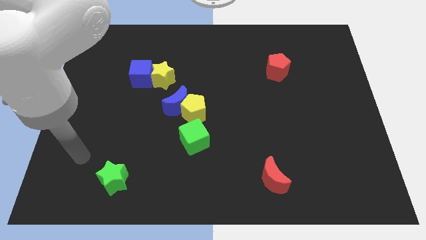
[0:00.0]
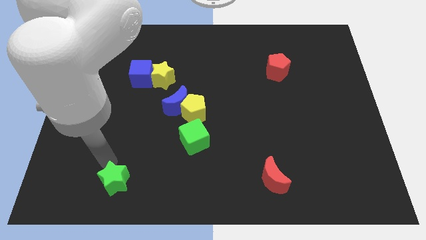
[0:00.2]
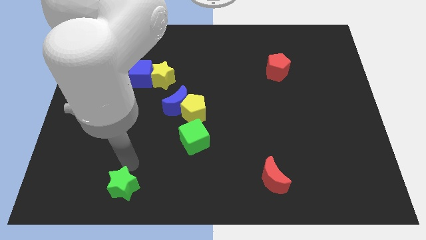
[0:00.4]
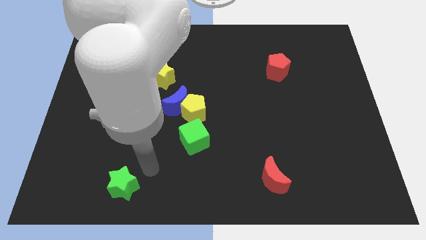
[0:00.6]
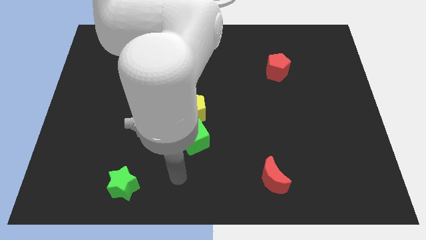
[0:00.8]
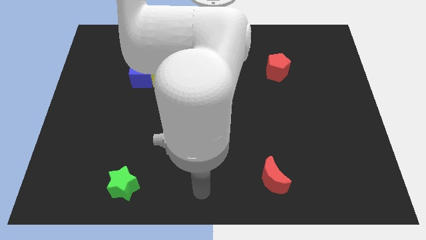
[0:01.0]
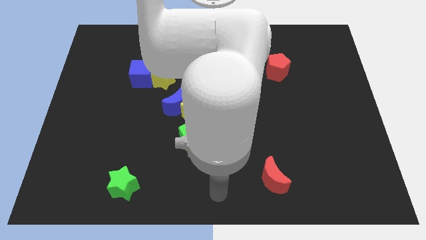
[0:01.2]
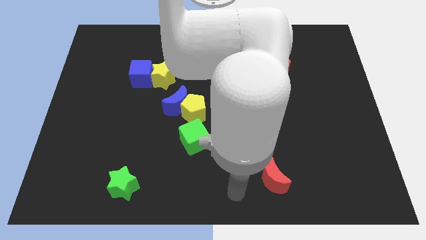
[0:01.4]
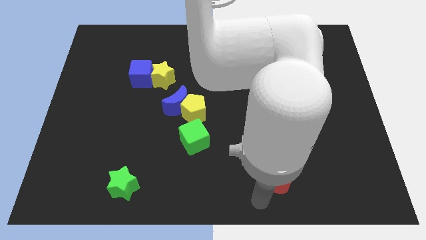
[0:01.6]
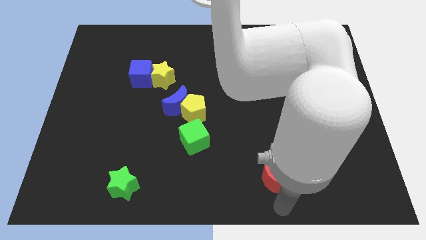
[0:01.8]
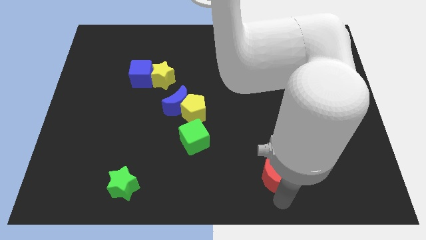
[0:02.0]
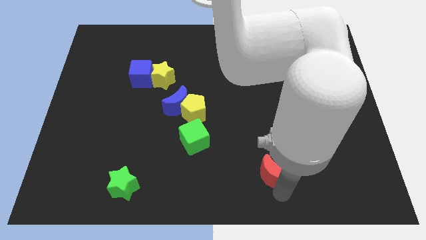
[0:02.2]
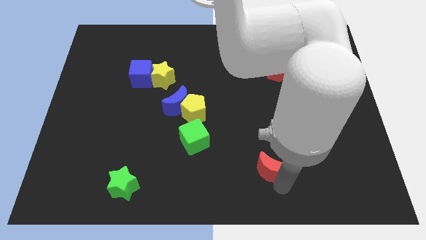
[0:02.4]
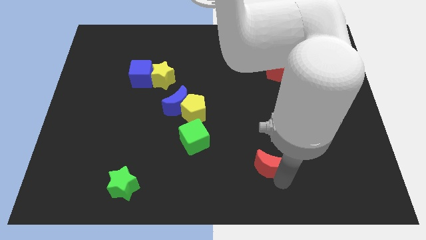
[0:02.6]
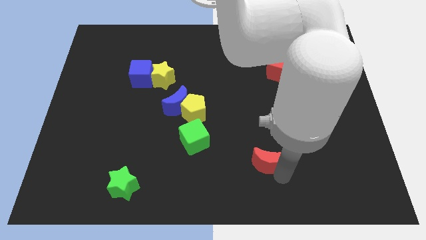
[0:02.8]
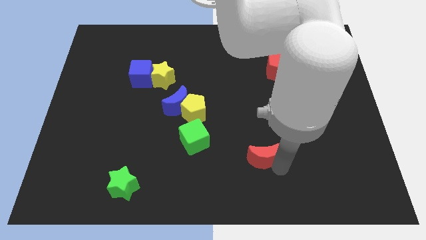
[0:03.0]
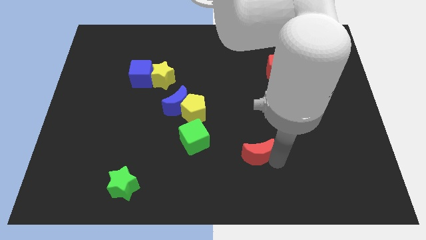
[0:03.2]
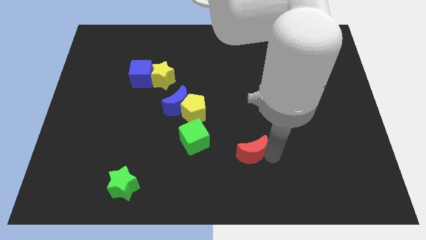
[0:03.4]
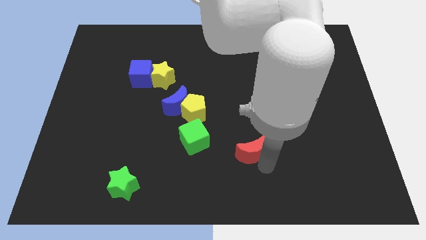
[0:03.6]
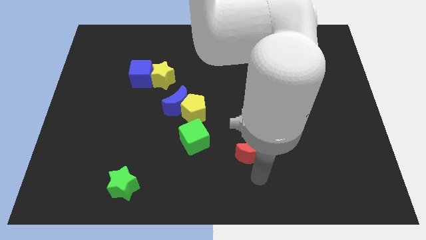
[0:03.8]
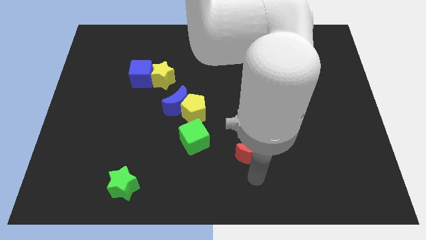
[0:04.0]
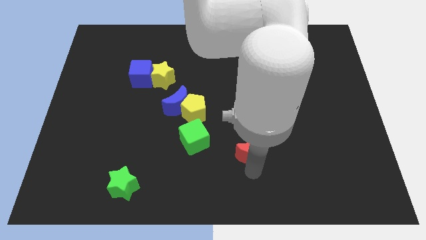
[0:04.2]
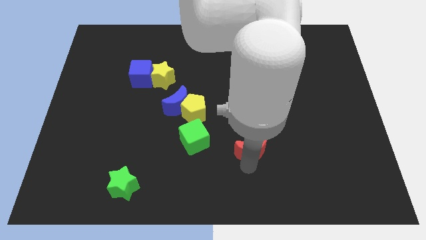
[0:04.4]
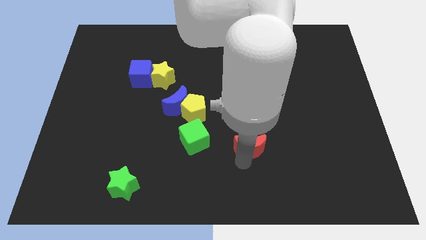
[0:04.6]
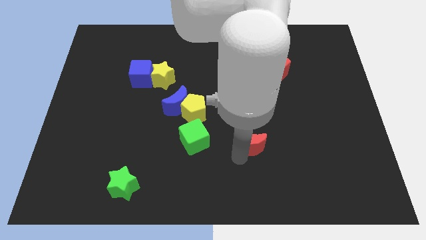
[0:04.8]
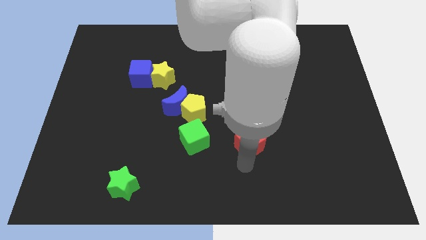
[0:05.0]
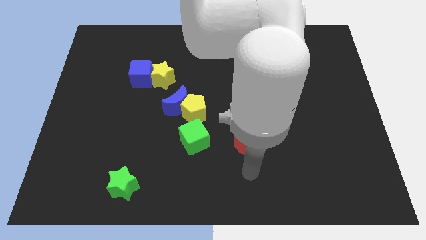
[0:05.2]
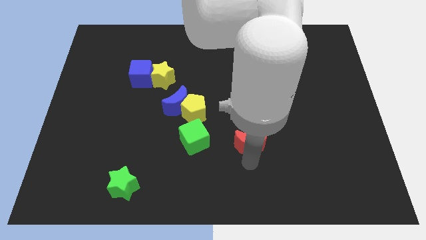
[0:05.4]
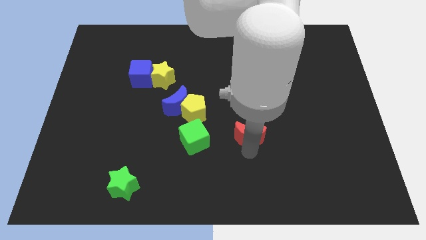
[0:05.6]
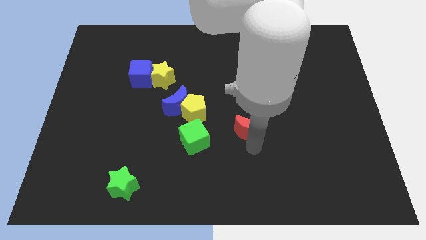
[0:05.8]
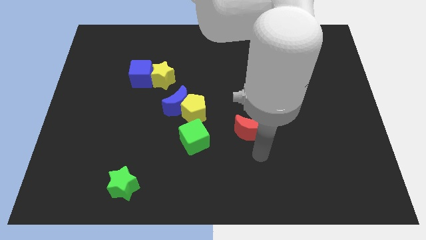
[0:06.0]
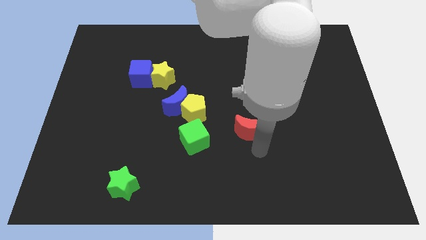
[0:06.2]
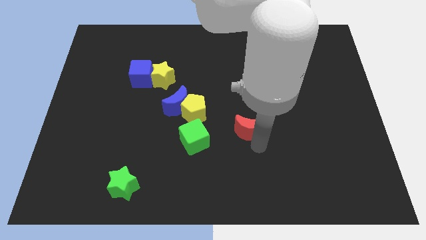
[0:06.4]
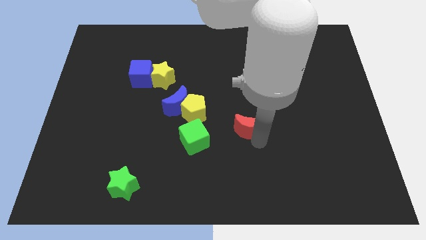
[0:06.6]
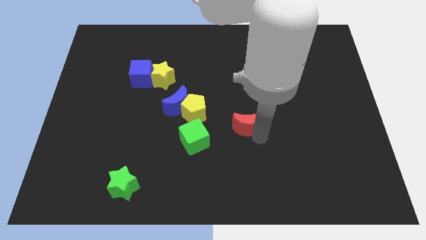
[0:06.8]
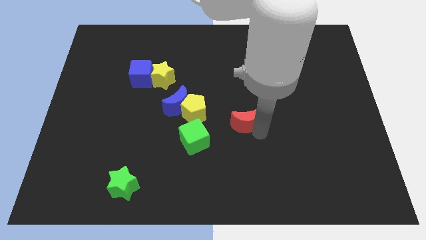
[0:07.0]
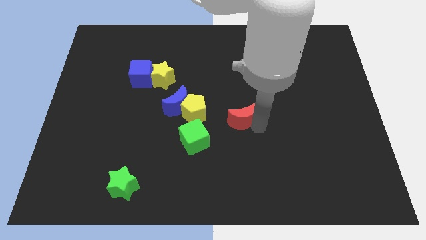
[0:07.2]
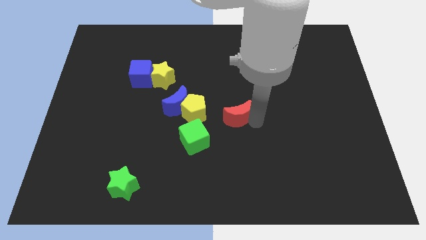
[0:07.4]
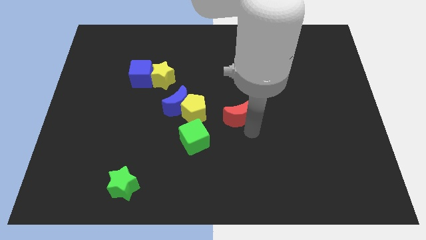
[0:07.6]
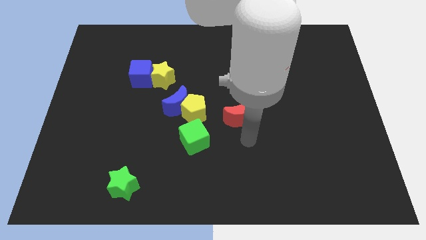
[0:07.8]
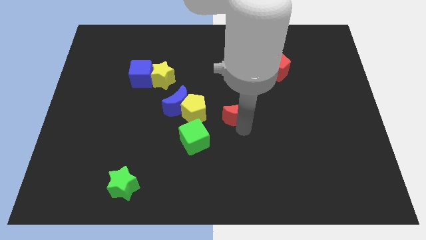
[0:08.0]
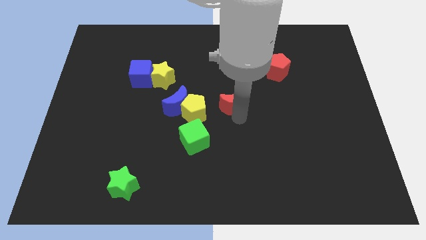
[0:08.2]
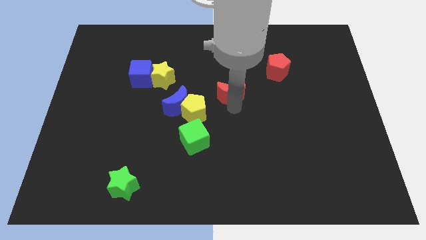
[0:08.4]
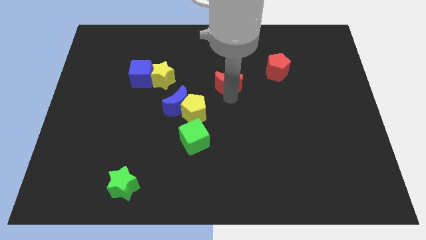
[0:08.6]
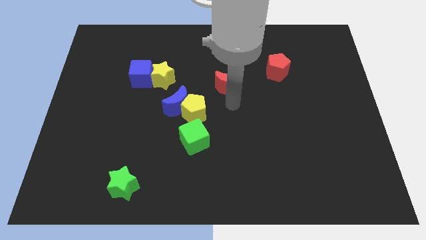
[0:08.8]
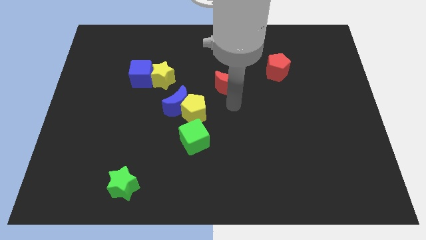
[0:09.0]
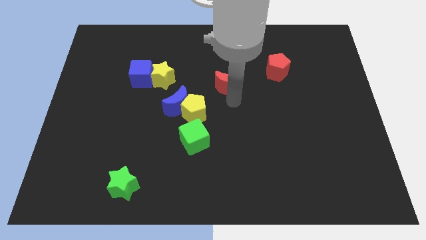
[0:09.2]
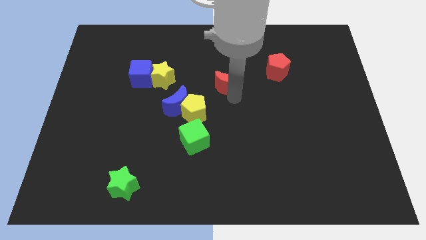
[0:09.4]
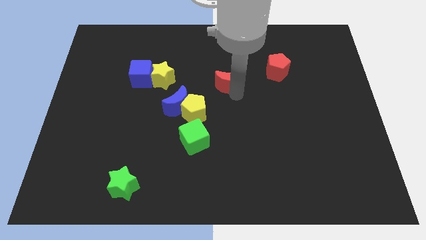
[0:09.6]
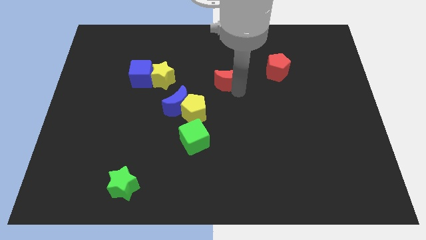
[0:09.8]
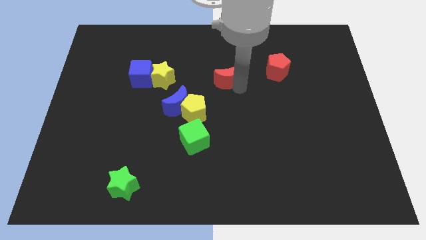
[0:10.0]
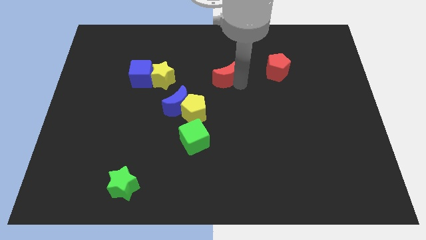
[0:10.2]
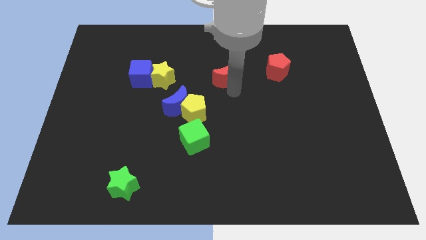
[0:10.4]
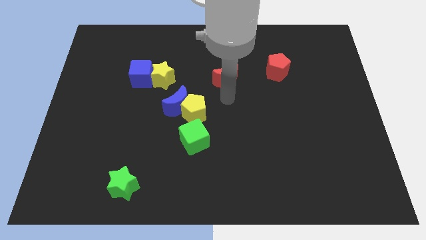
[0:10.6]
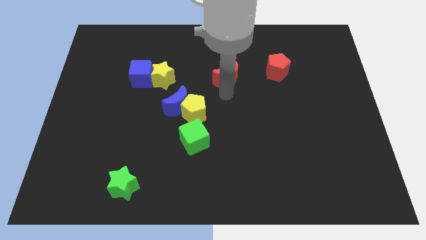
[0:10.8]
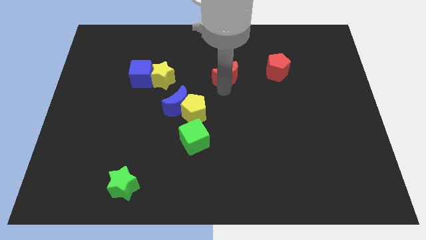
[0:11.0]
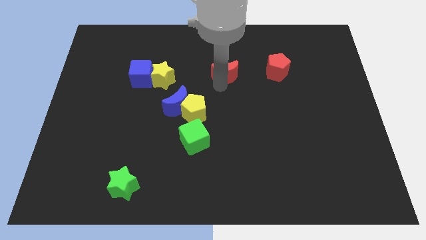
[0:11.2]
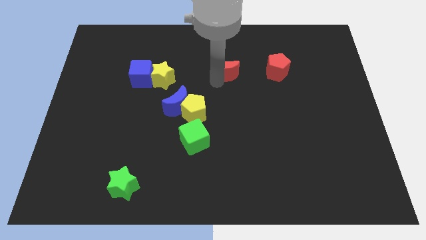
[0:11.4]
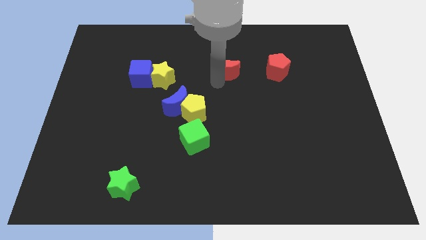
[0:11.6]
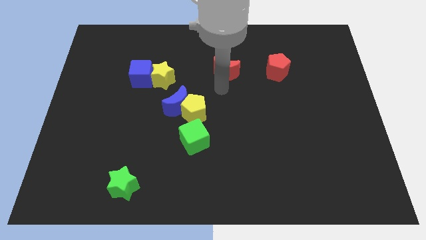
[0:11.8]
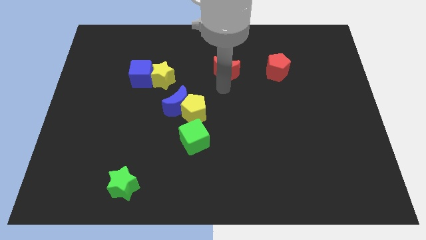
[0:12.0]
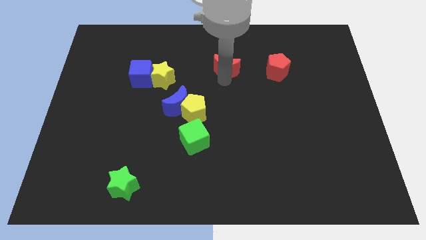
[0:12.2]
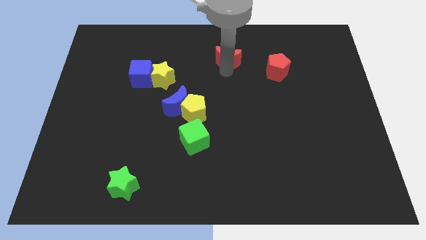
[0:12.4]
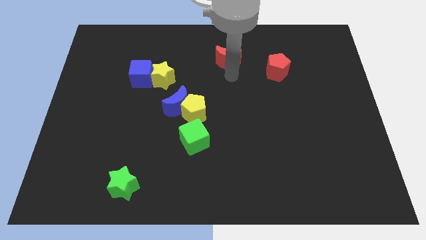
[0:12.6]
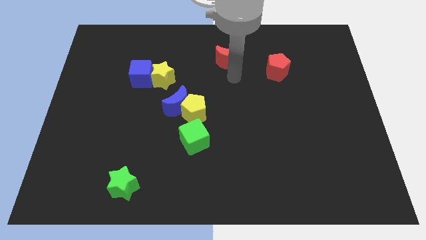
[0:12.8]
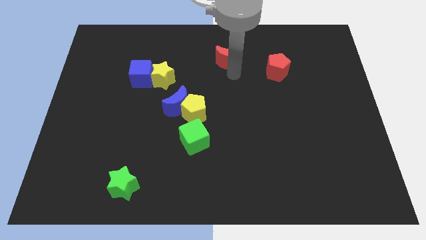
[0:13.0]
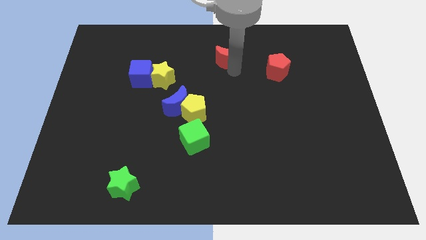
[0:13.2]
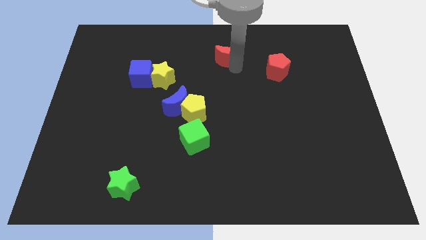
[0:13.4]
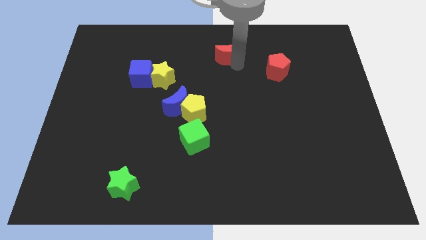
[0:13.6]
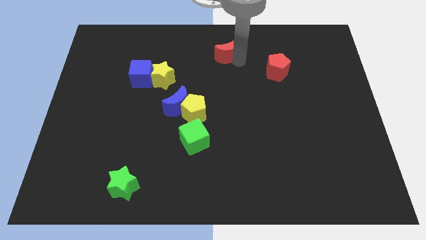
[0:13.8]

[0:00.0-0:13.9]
move the red moon to the top side
